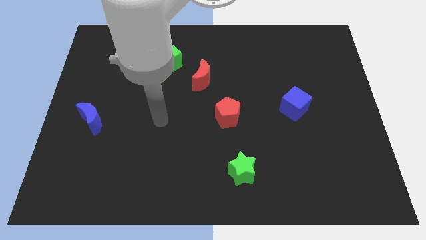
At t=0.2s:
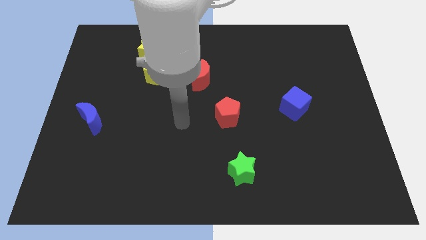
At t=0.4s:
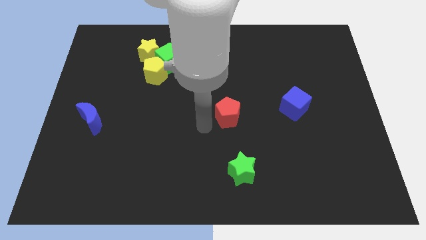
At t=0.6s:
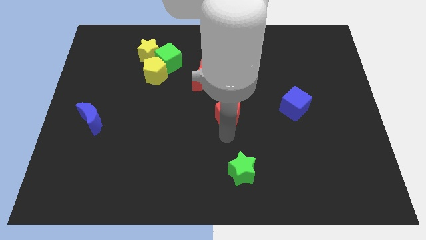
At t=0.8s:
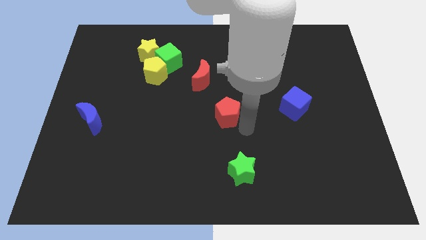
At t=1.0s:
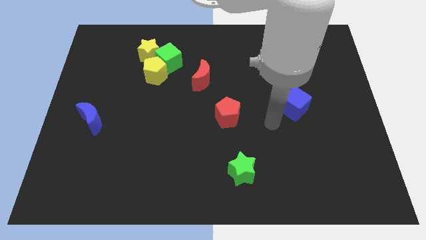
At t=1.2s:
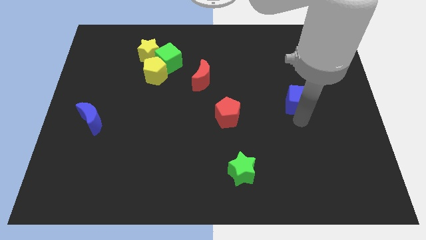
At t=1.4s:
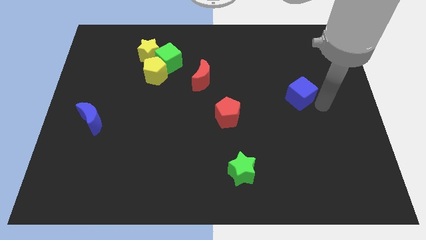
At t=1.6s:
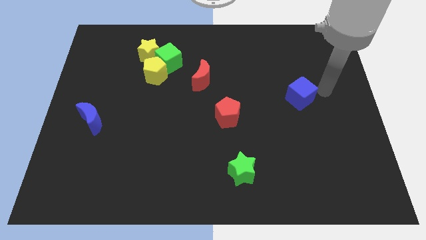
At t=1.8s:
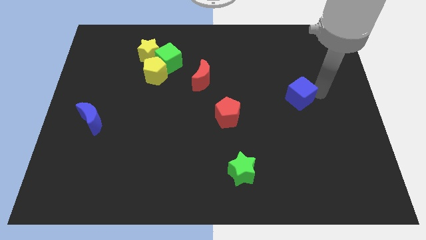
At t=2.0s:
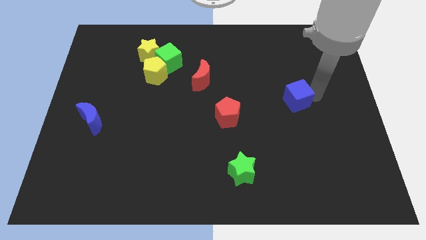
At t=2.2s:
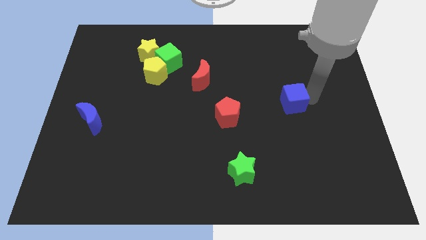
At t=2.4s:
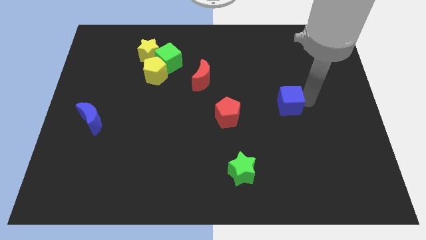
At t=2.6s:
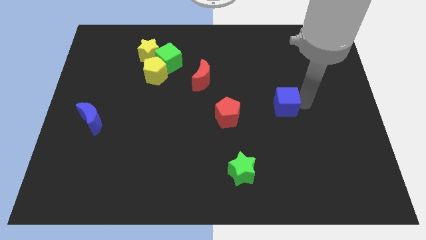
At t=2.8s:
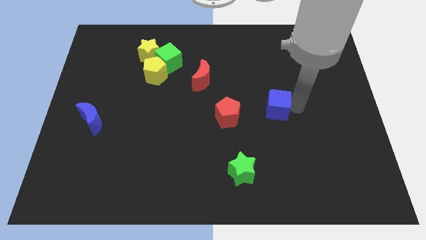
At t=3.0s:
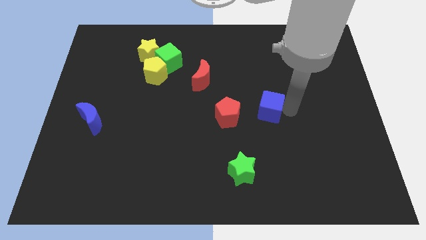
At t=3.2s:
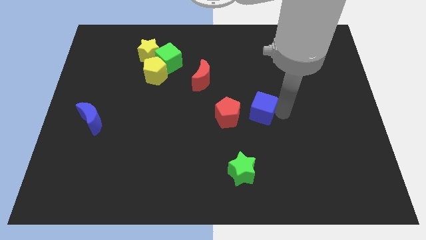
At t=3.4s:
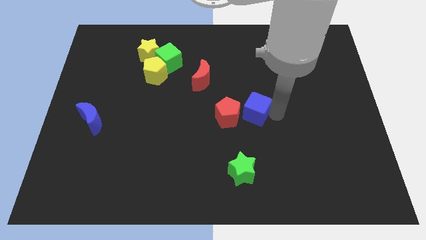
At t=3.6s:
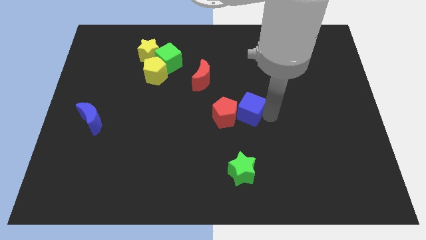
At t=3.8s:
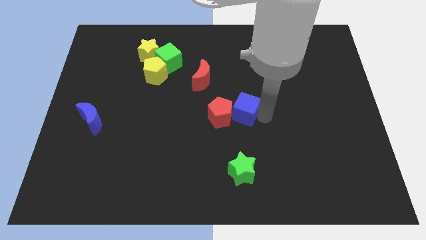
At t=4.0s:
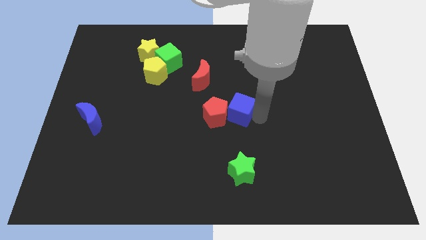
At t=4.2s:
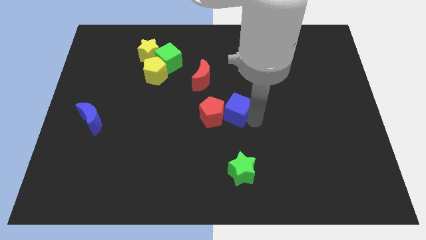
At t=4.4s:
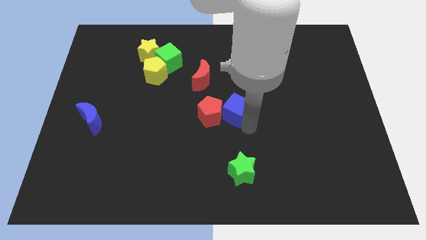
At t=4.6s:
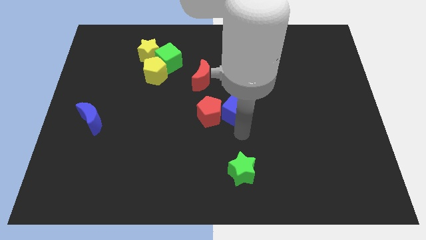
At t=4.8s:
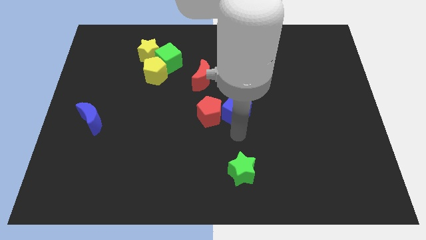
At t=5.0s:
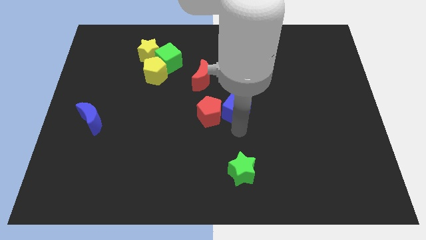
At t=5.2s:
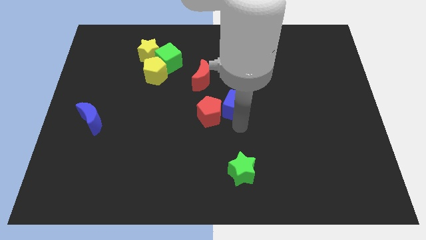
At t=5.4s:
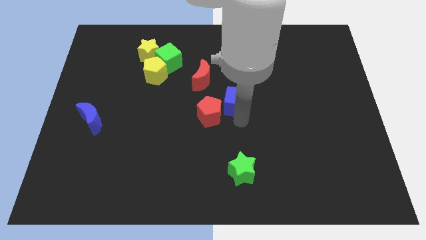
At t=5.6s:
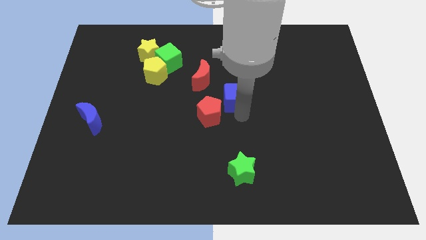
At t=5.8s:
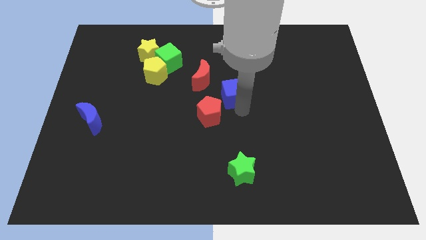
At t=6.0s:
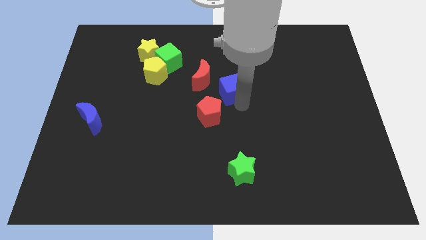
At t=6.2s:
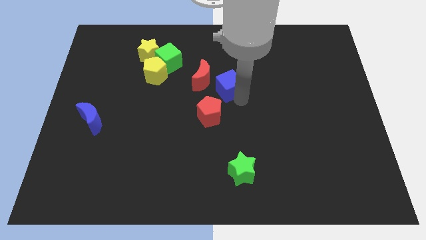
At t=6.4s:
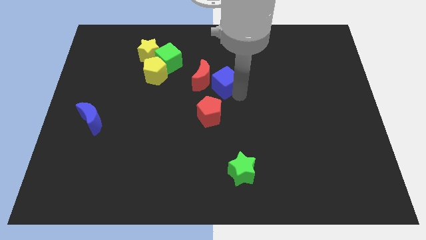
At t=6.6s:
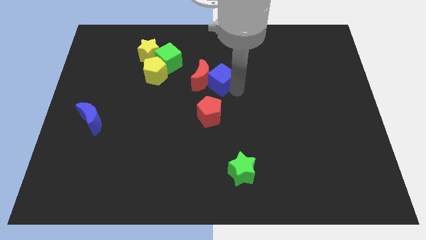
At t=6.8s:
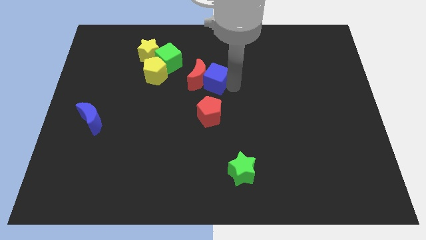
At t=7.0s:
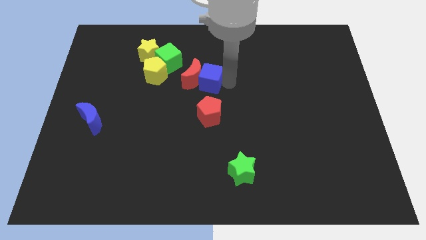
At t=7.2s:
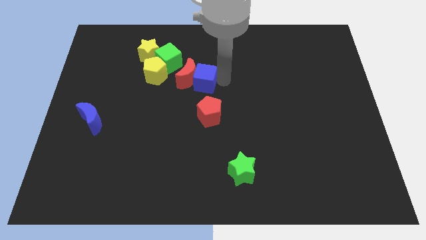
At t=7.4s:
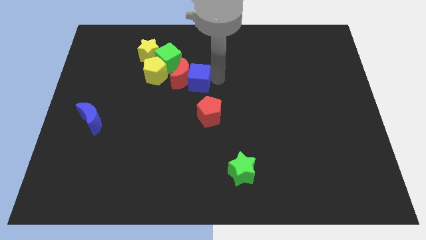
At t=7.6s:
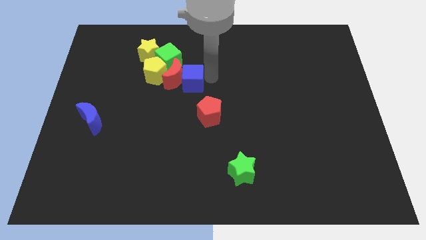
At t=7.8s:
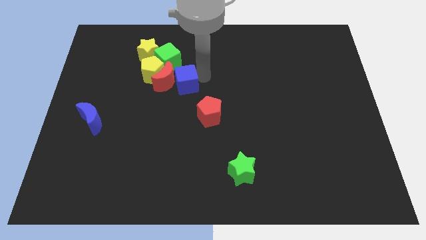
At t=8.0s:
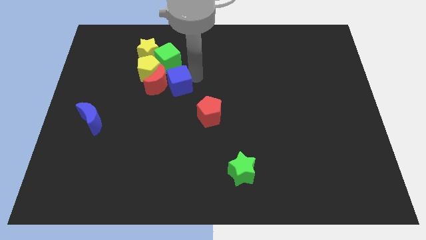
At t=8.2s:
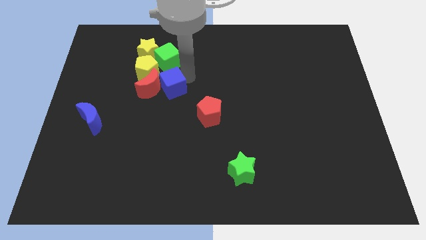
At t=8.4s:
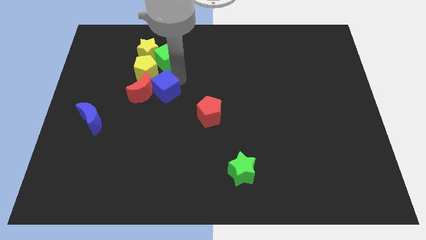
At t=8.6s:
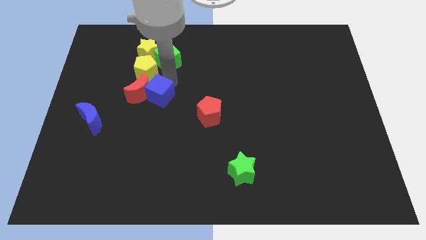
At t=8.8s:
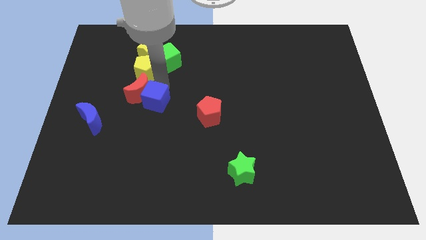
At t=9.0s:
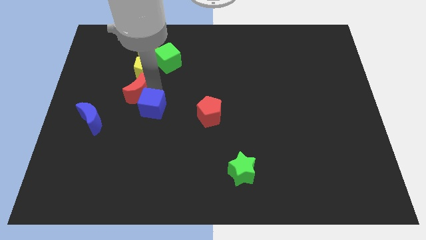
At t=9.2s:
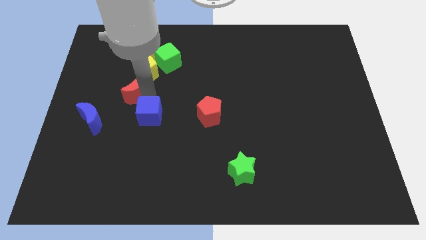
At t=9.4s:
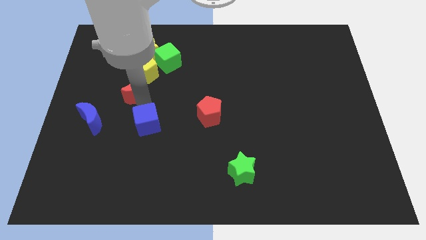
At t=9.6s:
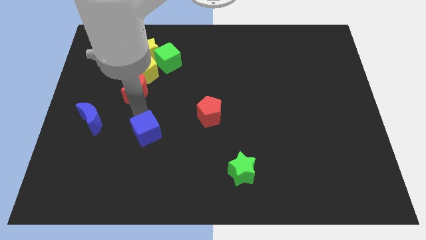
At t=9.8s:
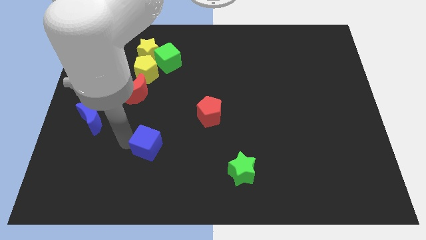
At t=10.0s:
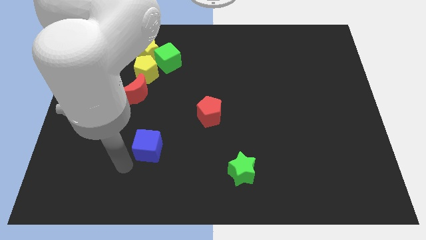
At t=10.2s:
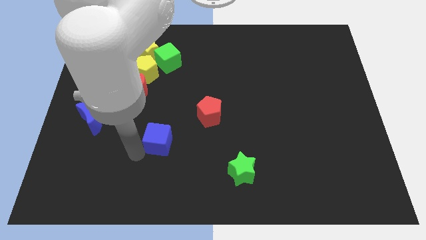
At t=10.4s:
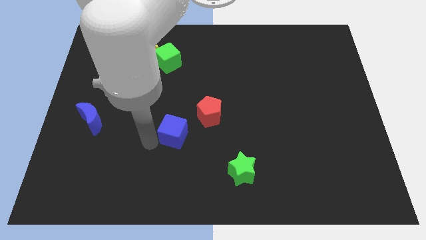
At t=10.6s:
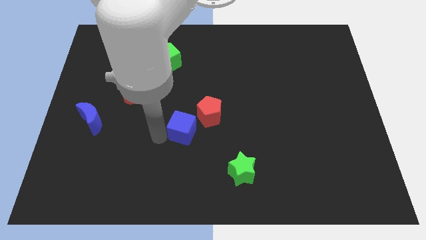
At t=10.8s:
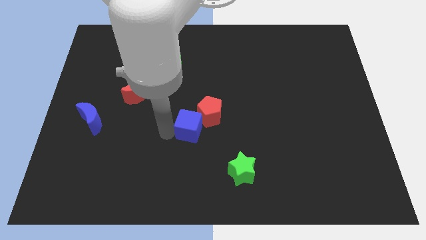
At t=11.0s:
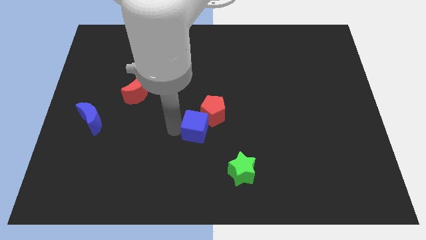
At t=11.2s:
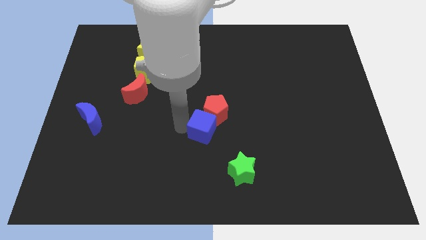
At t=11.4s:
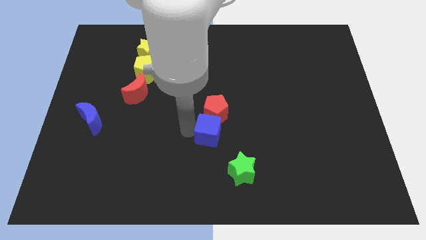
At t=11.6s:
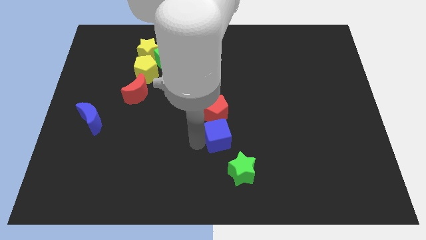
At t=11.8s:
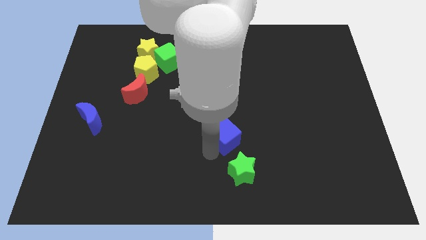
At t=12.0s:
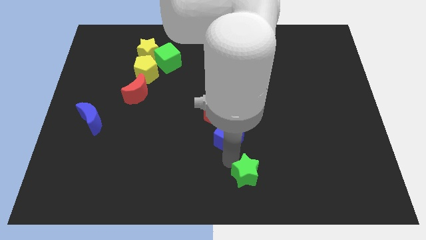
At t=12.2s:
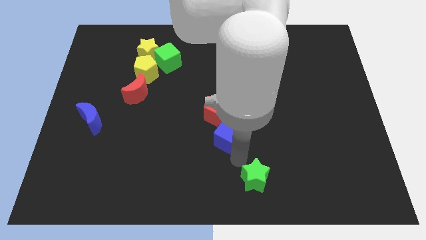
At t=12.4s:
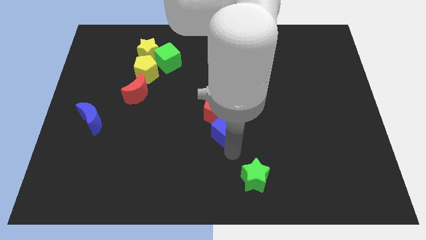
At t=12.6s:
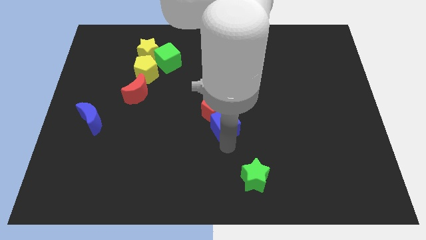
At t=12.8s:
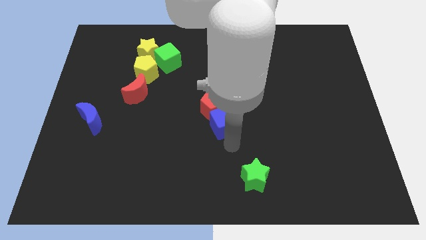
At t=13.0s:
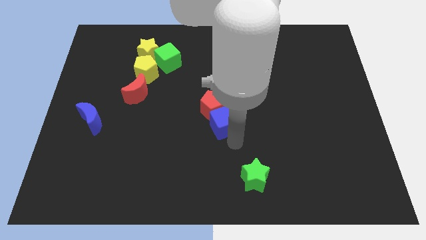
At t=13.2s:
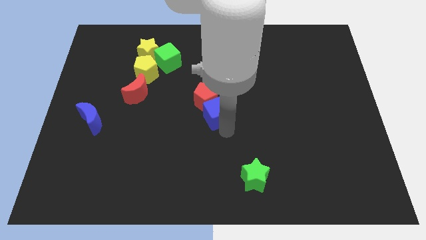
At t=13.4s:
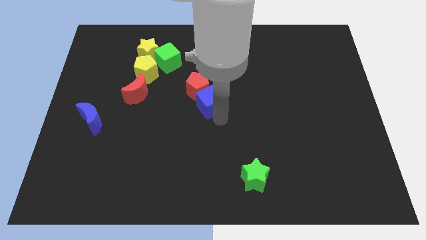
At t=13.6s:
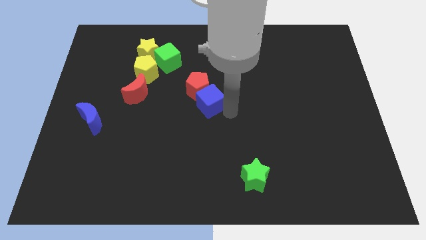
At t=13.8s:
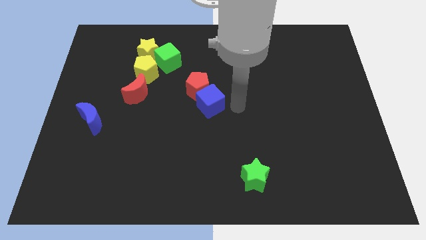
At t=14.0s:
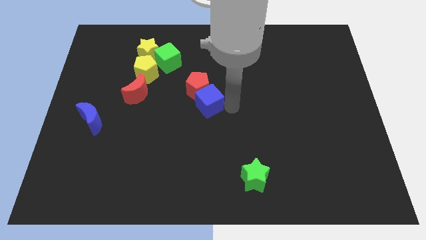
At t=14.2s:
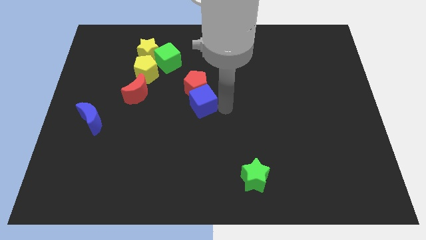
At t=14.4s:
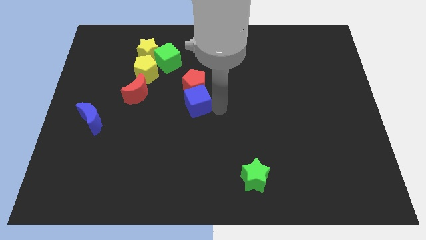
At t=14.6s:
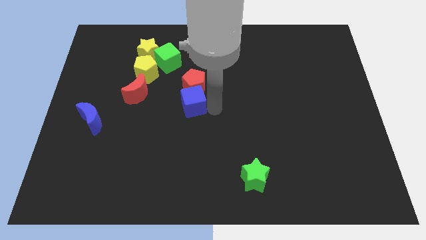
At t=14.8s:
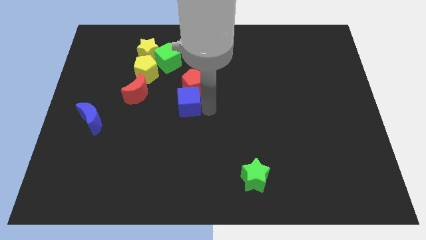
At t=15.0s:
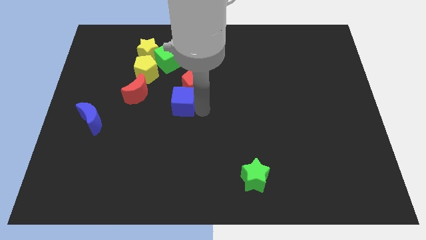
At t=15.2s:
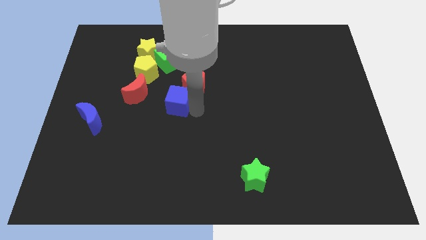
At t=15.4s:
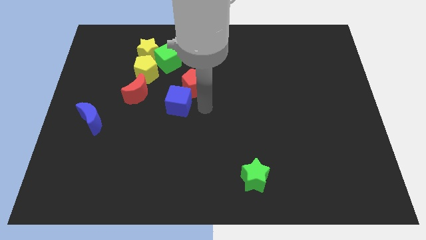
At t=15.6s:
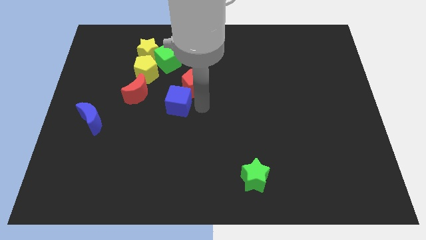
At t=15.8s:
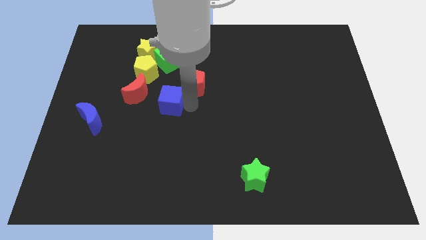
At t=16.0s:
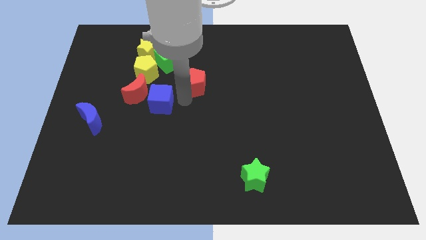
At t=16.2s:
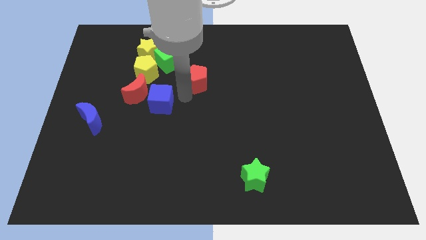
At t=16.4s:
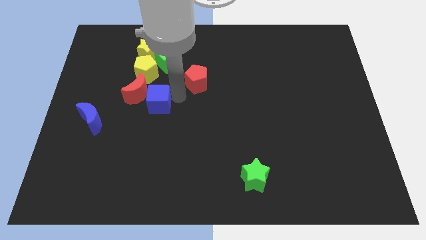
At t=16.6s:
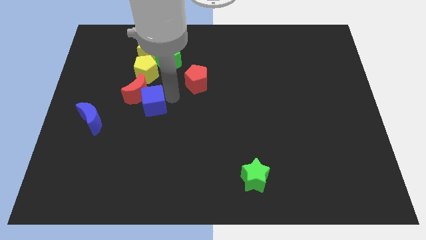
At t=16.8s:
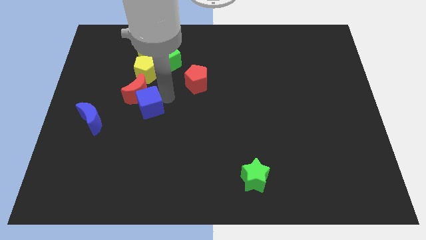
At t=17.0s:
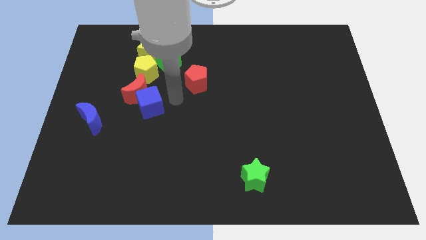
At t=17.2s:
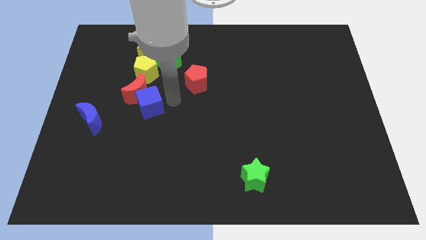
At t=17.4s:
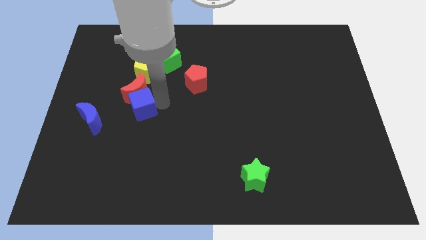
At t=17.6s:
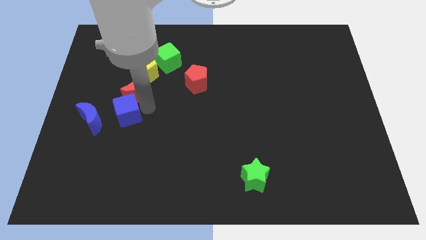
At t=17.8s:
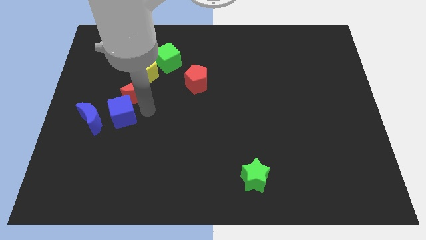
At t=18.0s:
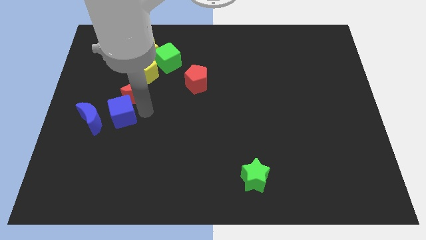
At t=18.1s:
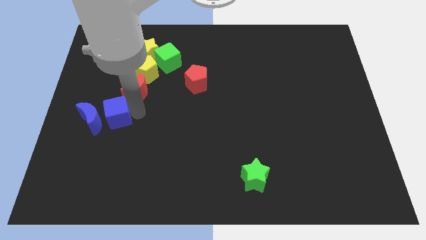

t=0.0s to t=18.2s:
put the blue cube to the blue moon
